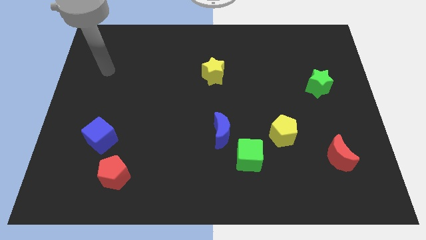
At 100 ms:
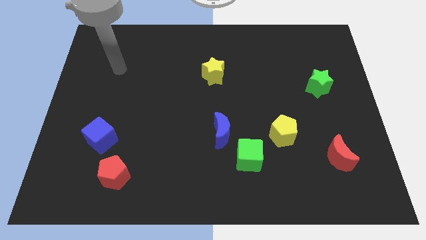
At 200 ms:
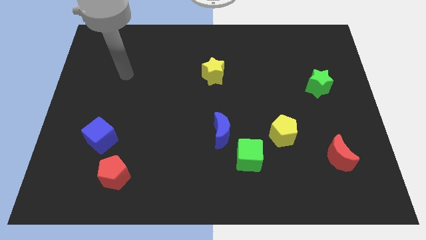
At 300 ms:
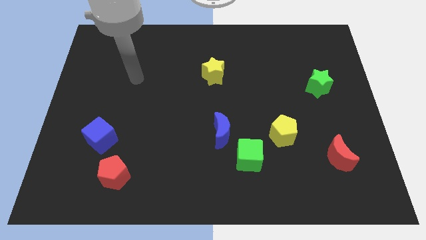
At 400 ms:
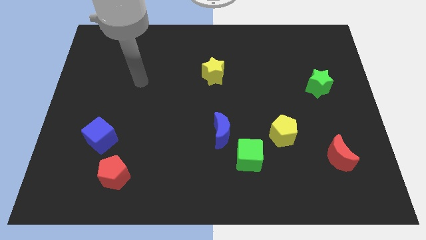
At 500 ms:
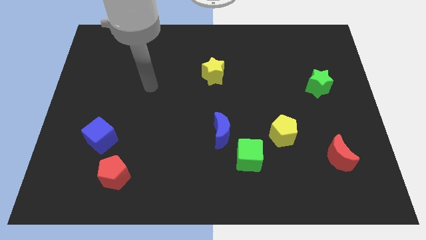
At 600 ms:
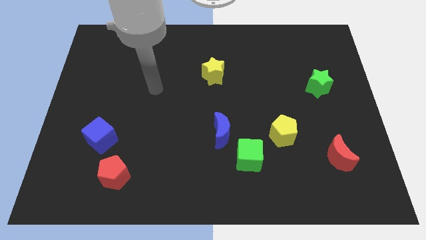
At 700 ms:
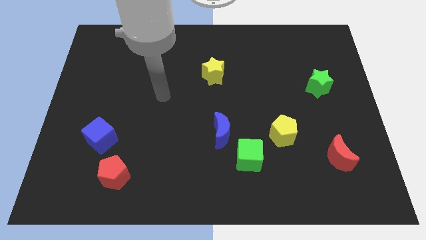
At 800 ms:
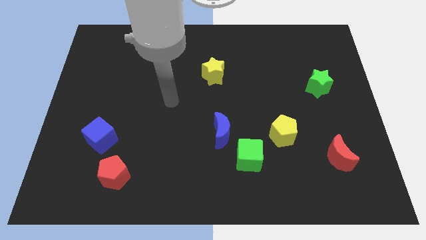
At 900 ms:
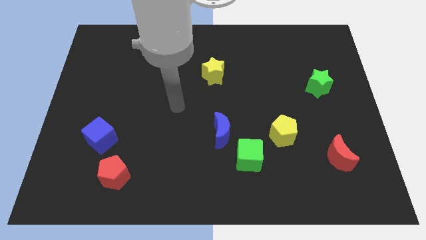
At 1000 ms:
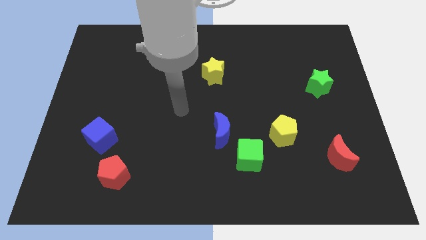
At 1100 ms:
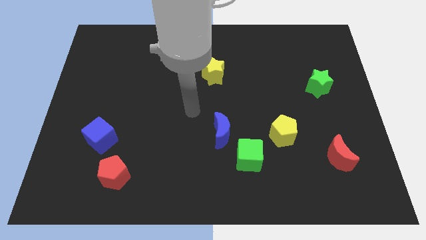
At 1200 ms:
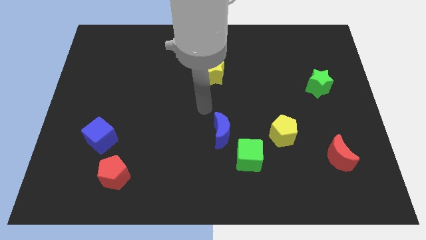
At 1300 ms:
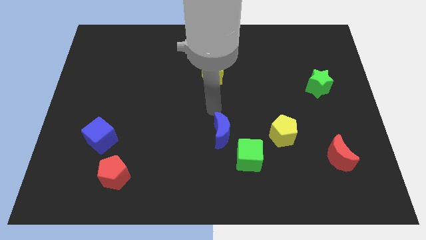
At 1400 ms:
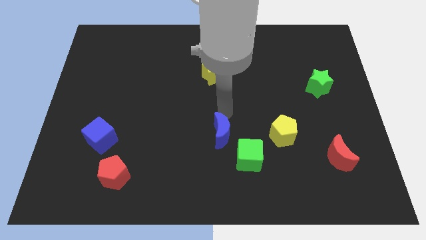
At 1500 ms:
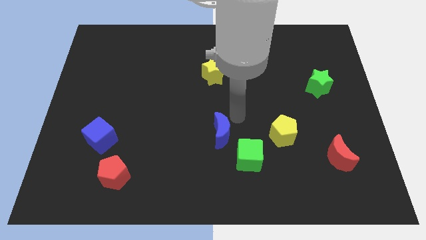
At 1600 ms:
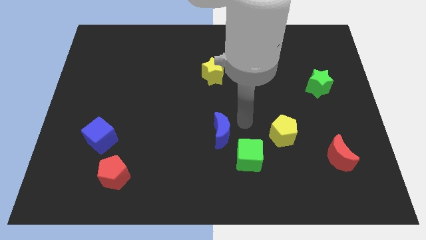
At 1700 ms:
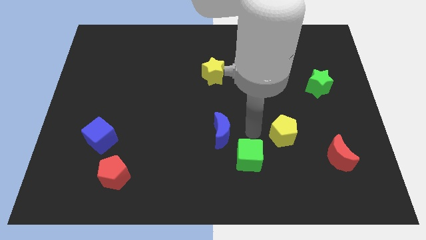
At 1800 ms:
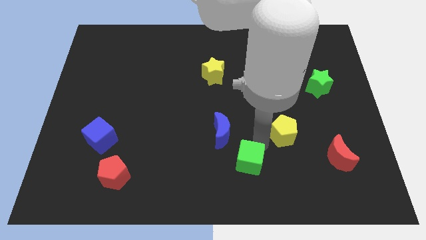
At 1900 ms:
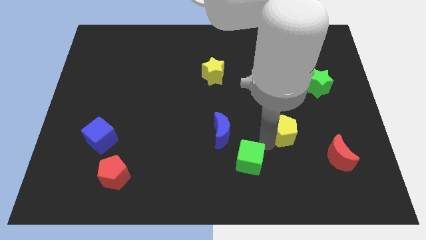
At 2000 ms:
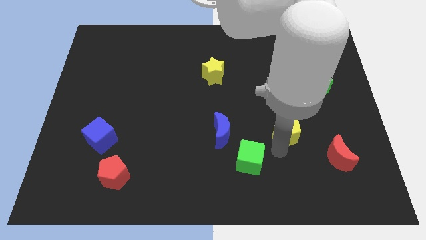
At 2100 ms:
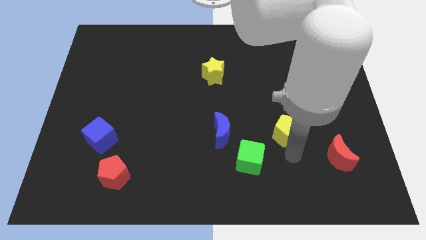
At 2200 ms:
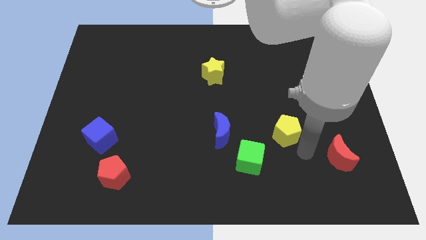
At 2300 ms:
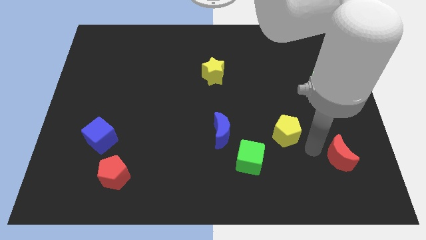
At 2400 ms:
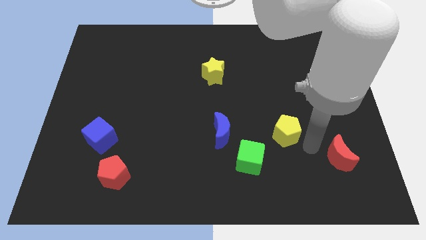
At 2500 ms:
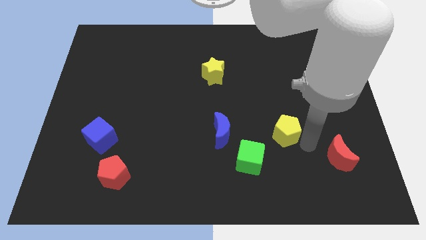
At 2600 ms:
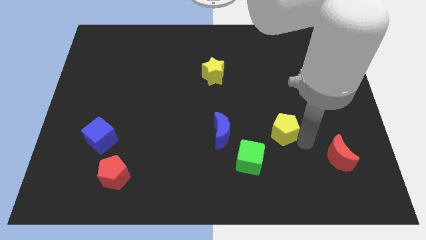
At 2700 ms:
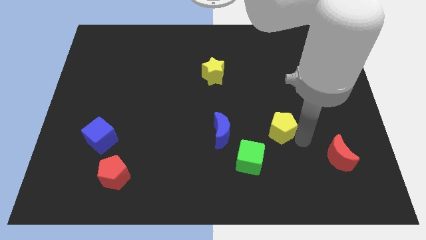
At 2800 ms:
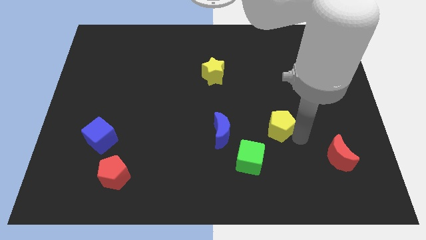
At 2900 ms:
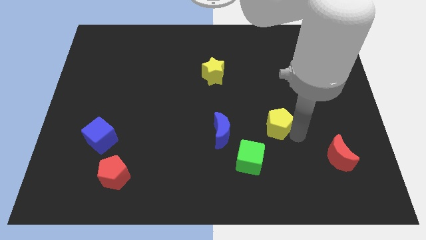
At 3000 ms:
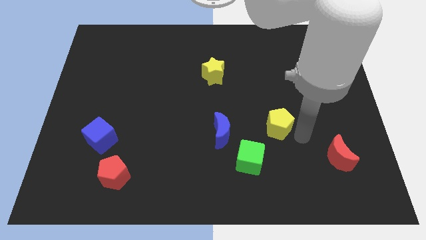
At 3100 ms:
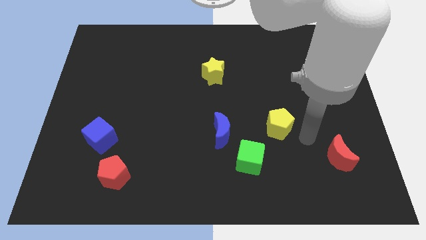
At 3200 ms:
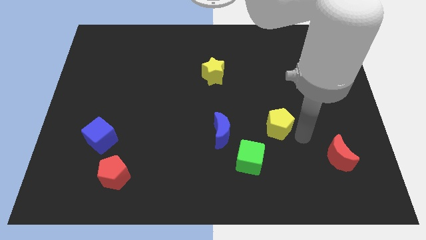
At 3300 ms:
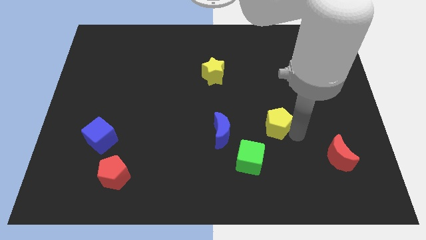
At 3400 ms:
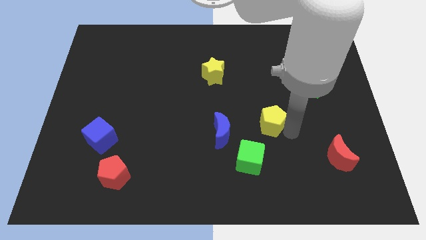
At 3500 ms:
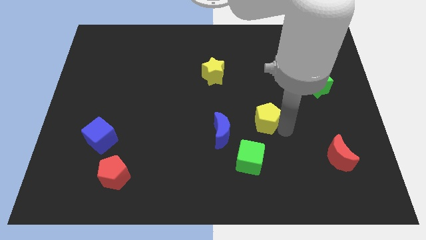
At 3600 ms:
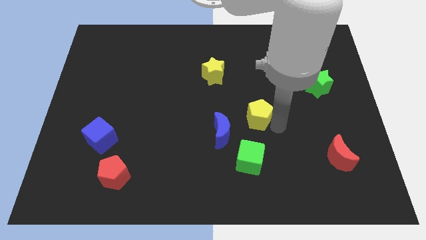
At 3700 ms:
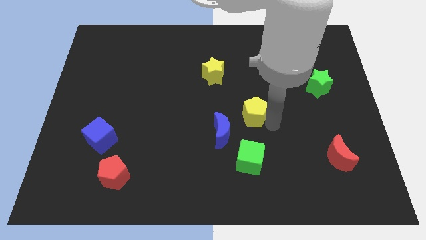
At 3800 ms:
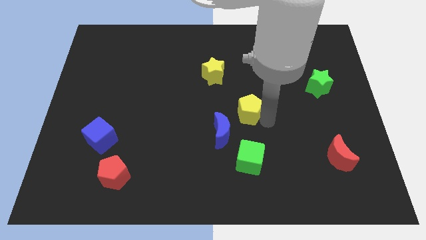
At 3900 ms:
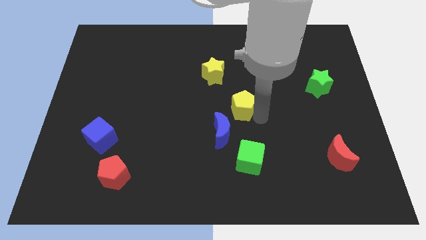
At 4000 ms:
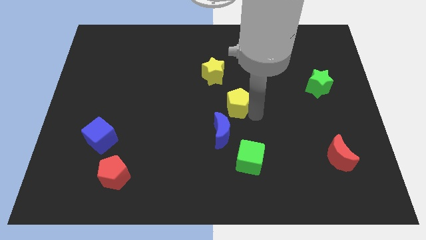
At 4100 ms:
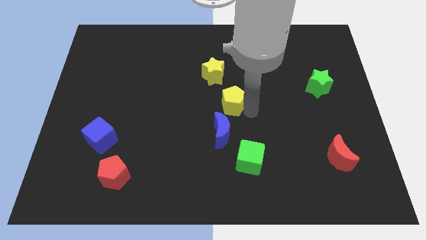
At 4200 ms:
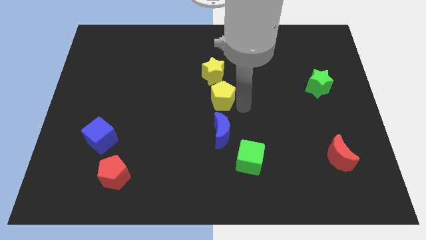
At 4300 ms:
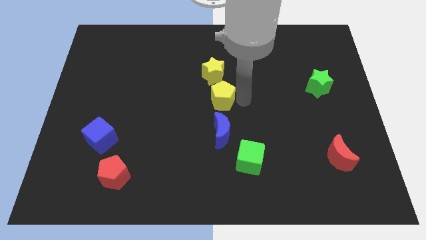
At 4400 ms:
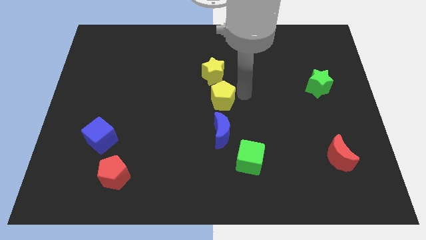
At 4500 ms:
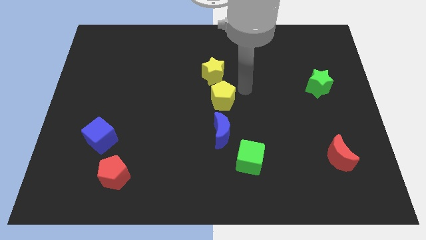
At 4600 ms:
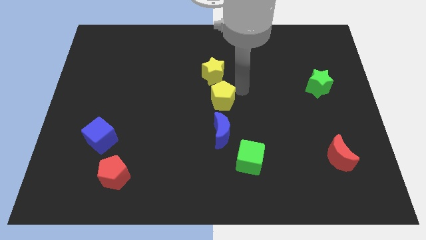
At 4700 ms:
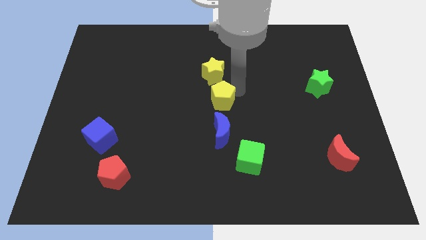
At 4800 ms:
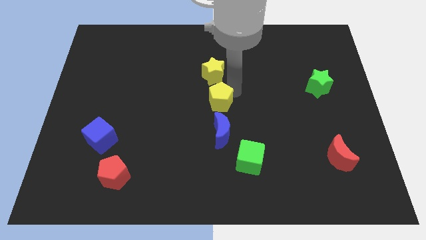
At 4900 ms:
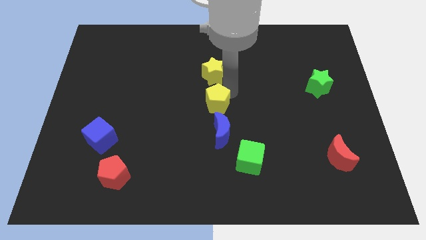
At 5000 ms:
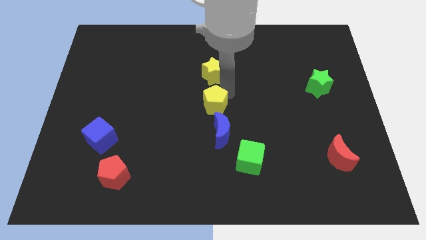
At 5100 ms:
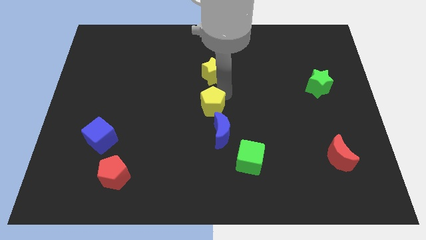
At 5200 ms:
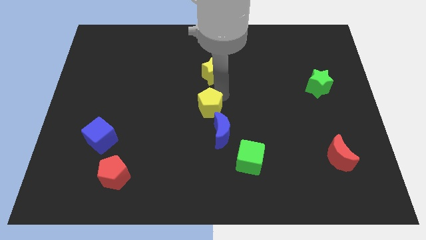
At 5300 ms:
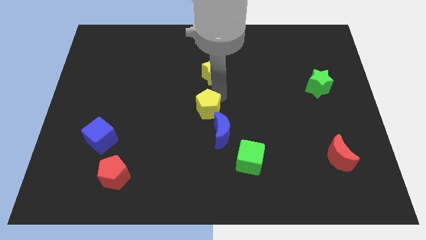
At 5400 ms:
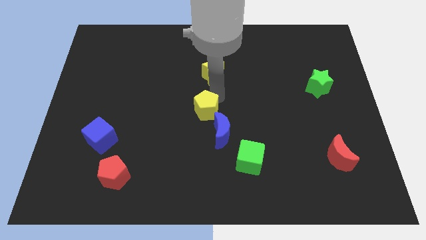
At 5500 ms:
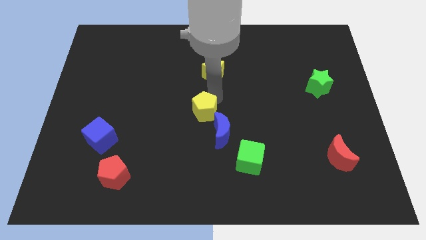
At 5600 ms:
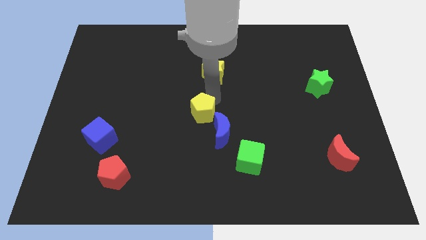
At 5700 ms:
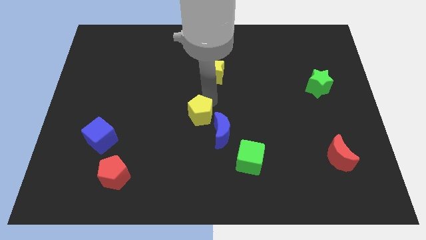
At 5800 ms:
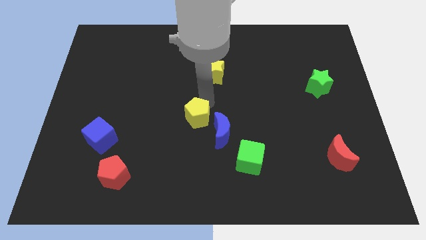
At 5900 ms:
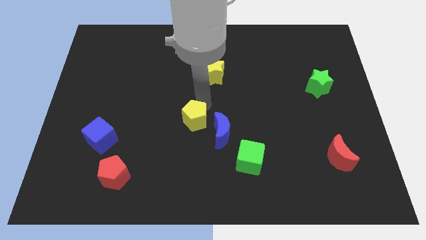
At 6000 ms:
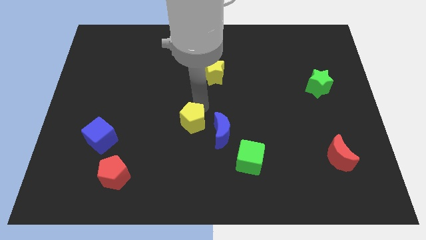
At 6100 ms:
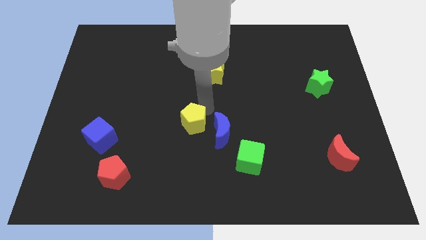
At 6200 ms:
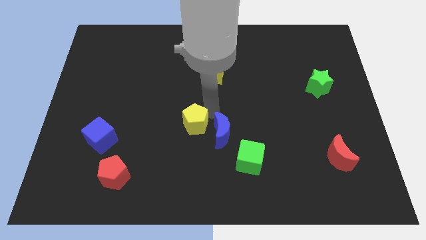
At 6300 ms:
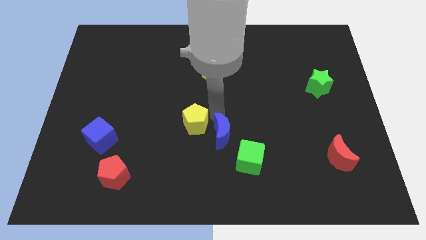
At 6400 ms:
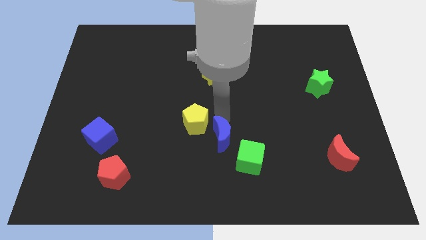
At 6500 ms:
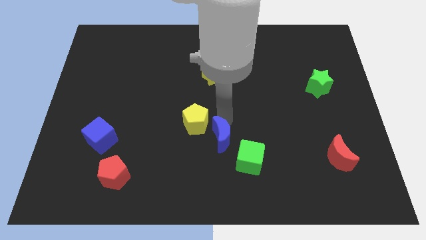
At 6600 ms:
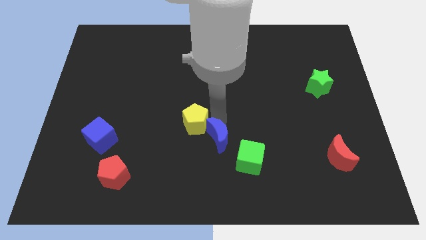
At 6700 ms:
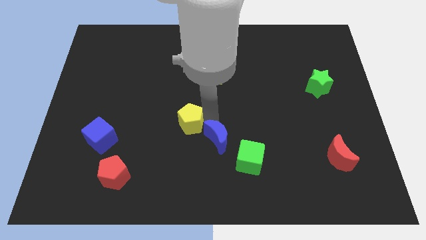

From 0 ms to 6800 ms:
move the yellow pentagon left

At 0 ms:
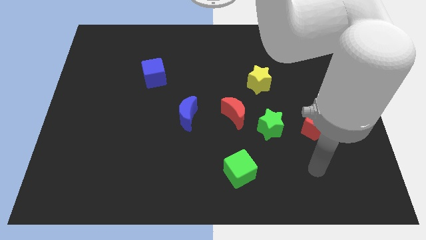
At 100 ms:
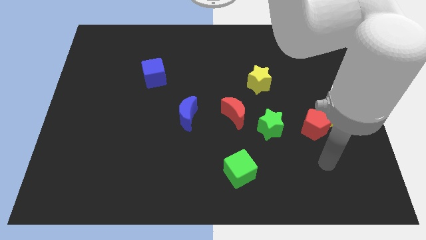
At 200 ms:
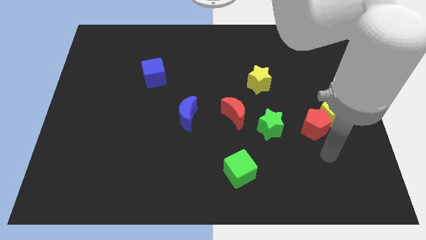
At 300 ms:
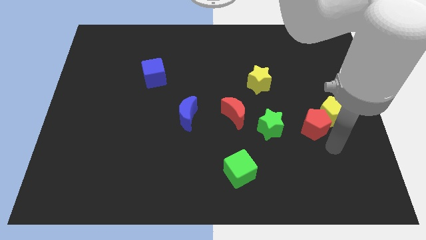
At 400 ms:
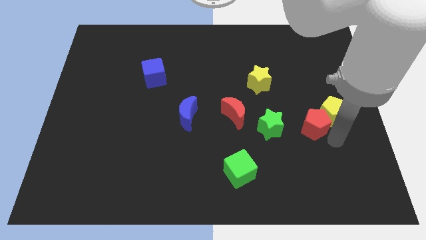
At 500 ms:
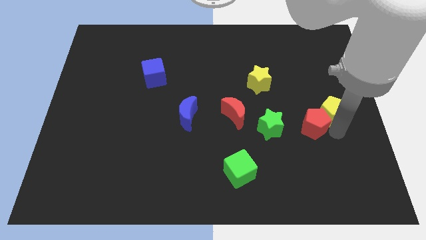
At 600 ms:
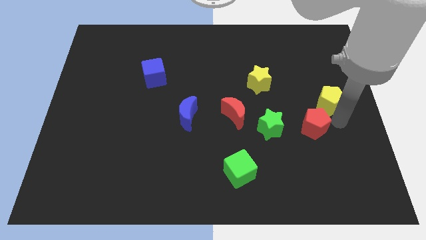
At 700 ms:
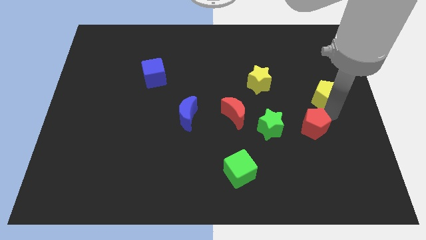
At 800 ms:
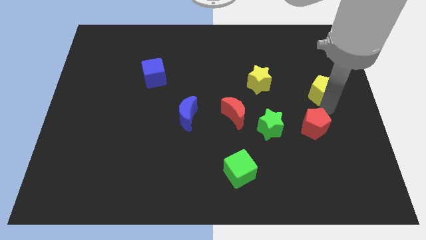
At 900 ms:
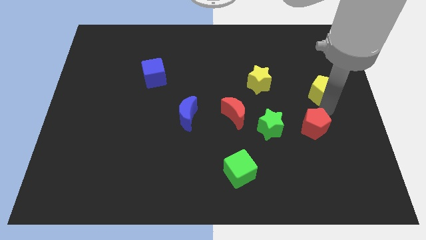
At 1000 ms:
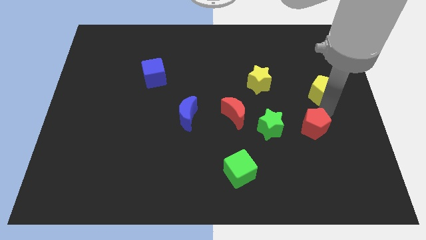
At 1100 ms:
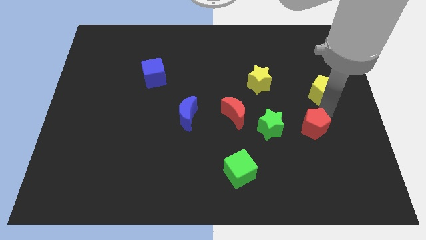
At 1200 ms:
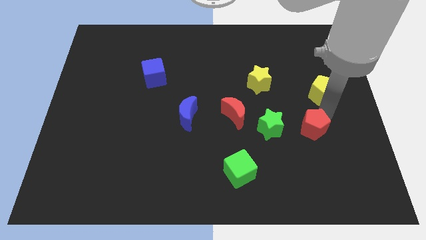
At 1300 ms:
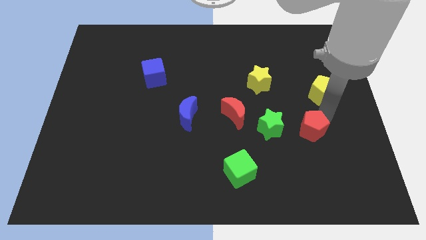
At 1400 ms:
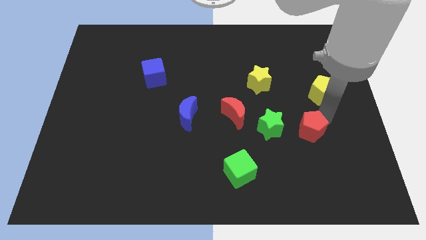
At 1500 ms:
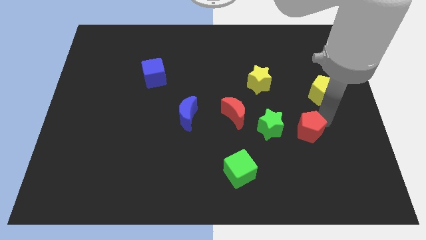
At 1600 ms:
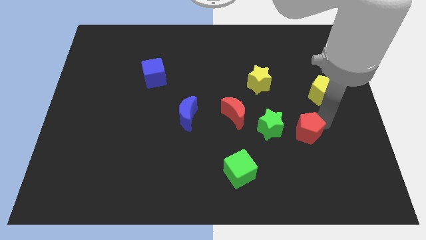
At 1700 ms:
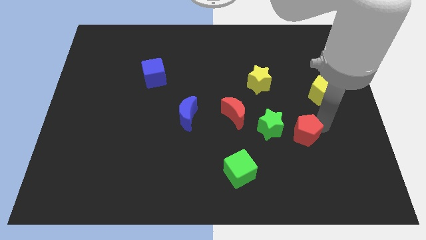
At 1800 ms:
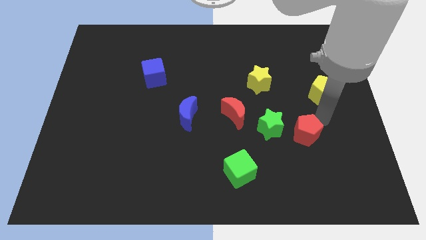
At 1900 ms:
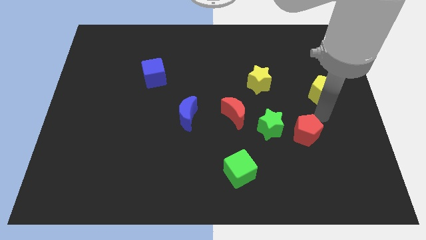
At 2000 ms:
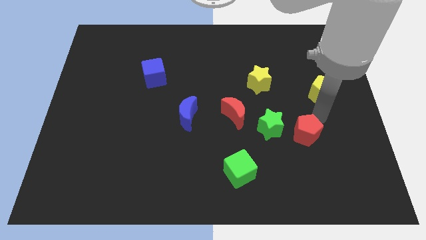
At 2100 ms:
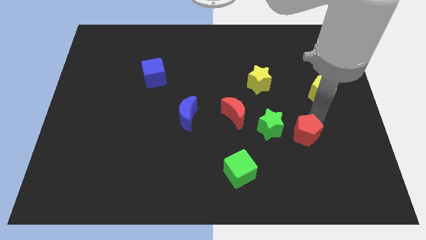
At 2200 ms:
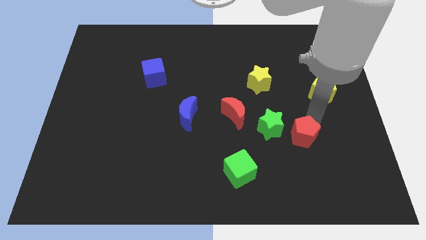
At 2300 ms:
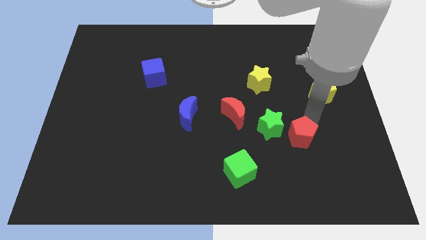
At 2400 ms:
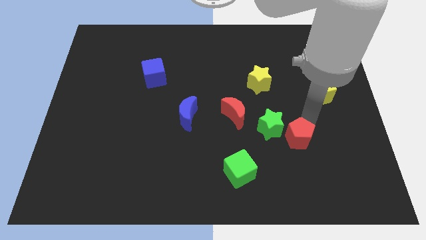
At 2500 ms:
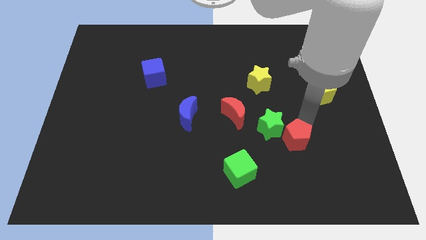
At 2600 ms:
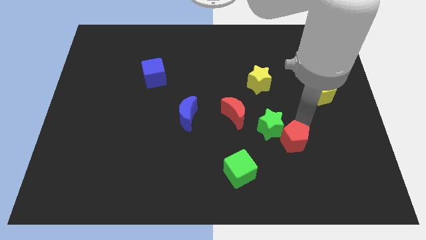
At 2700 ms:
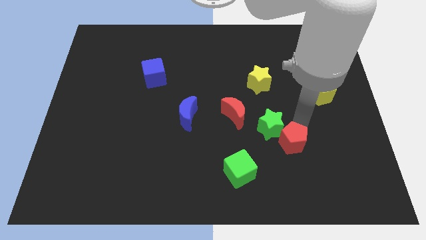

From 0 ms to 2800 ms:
slide the red pentagon diagonally down and left a bit
